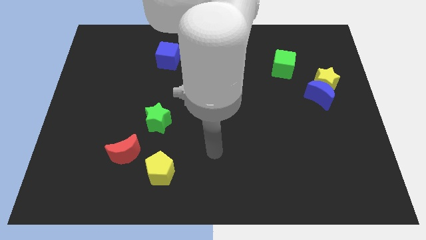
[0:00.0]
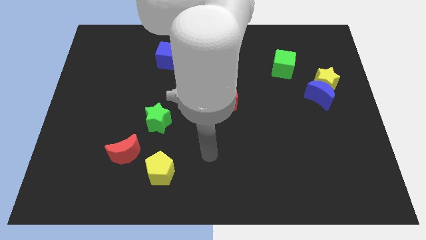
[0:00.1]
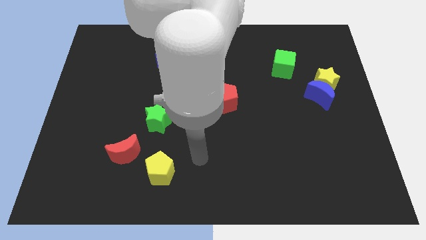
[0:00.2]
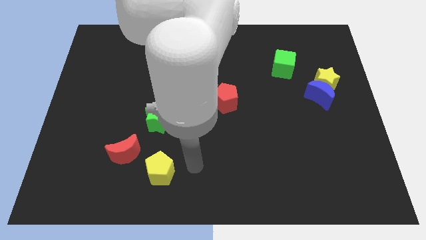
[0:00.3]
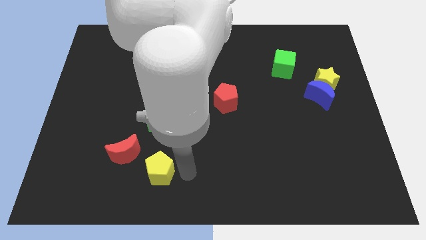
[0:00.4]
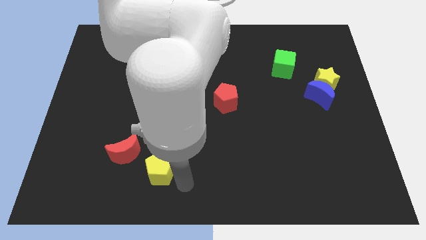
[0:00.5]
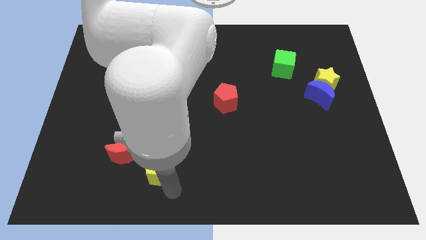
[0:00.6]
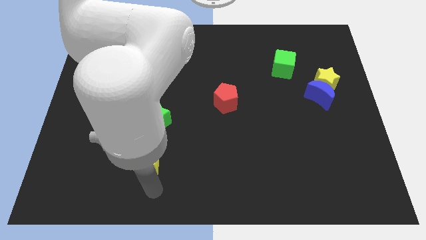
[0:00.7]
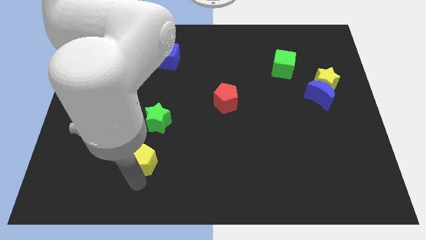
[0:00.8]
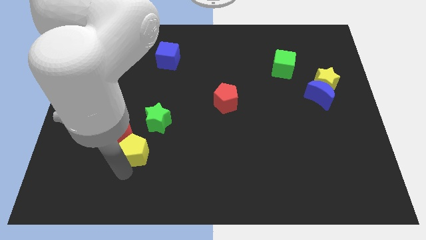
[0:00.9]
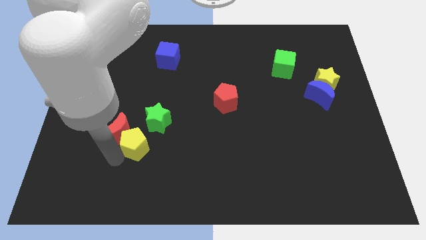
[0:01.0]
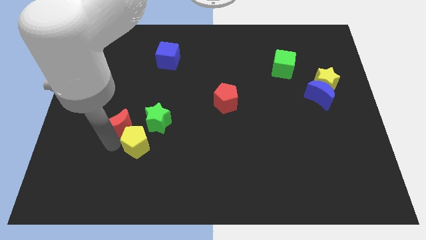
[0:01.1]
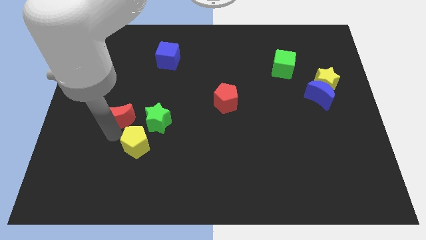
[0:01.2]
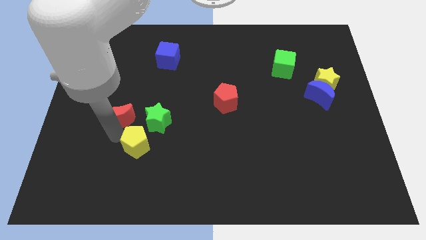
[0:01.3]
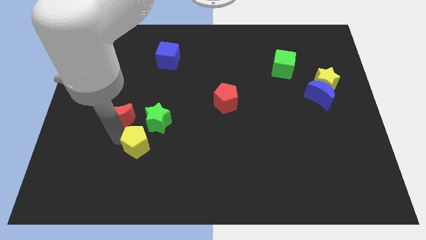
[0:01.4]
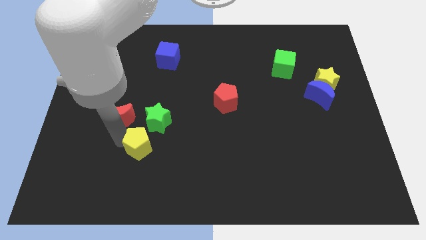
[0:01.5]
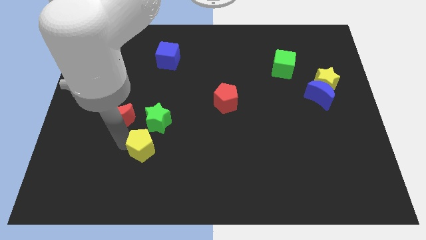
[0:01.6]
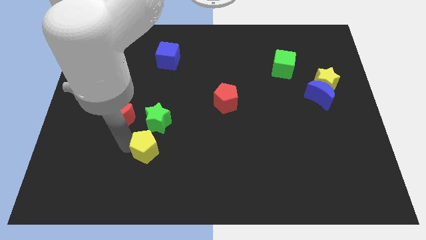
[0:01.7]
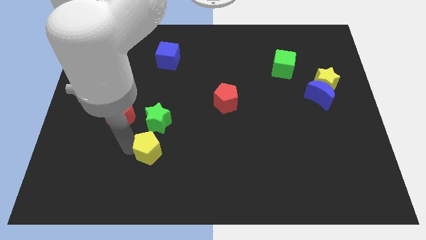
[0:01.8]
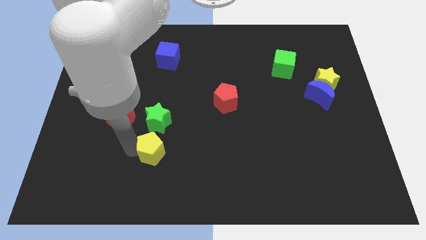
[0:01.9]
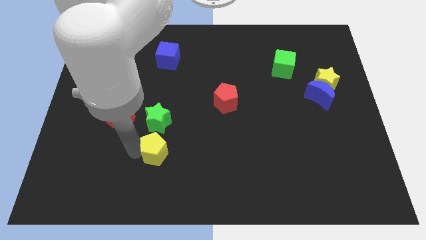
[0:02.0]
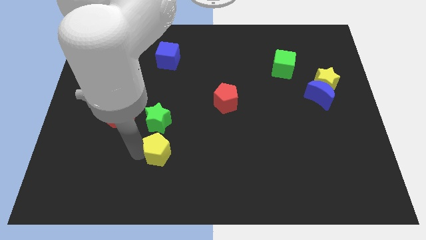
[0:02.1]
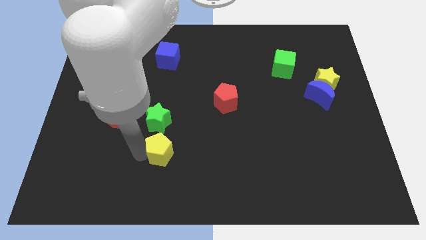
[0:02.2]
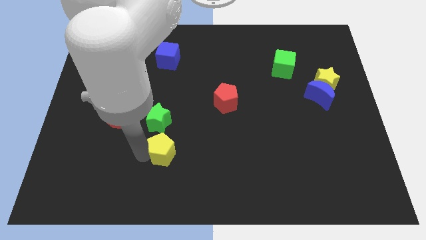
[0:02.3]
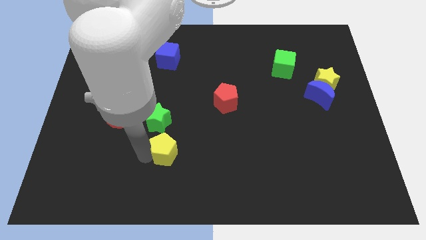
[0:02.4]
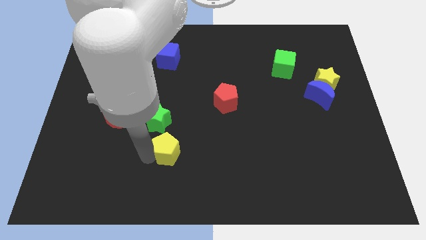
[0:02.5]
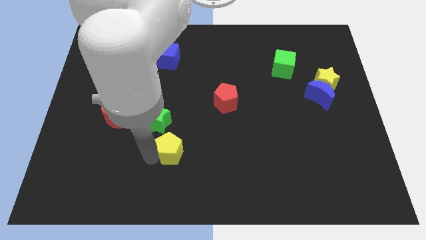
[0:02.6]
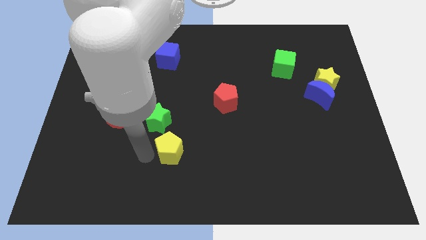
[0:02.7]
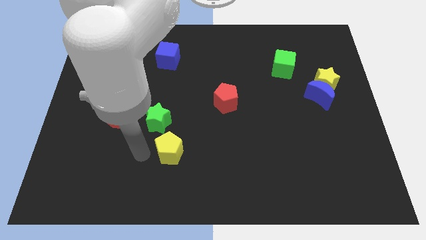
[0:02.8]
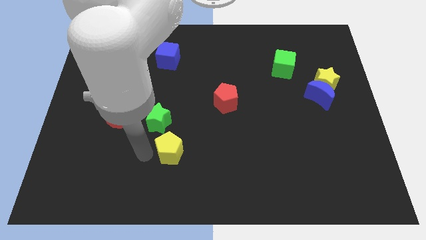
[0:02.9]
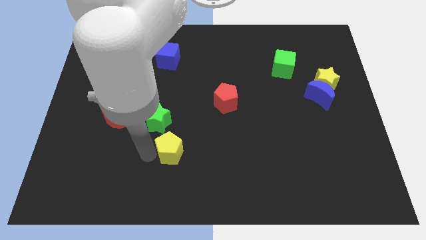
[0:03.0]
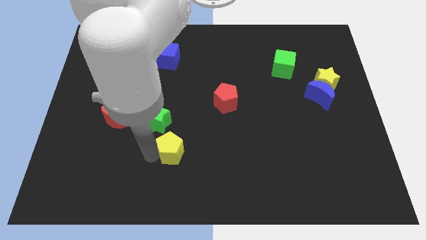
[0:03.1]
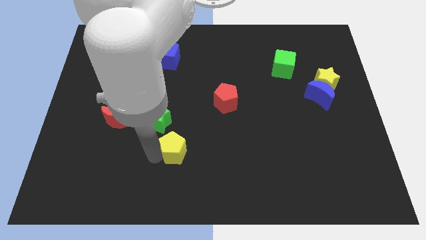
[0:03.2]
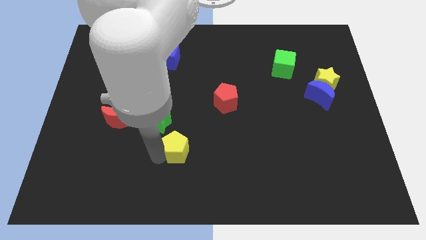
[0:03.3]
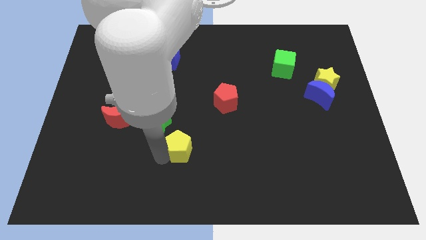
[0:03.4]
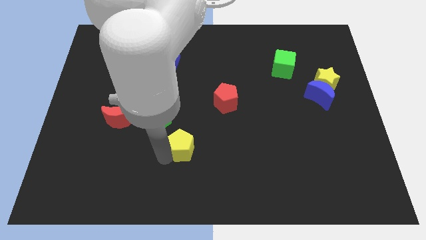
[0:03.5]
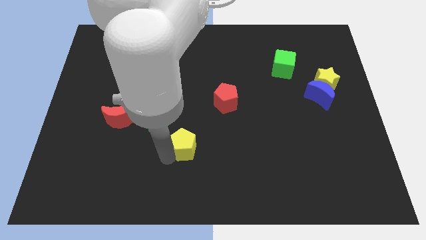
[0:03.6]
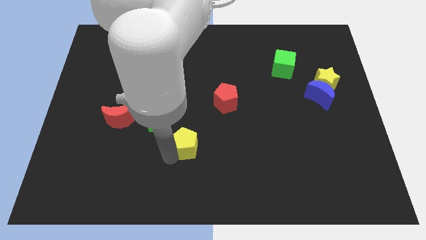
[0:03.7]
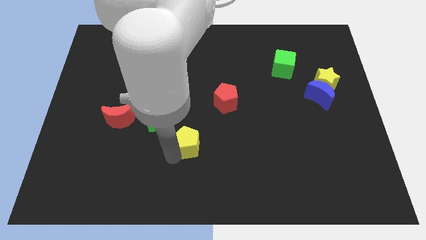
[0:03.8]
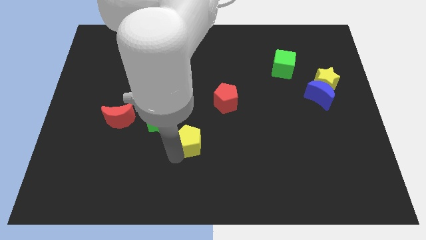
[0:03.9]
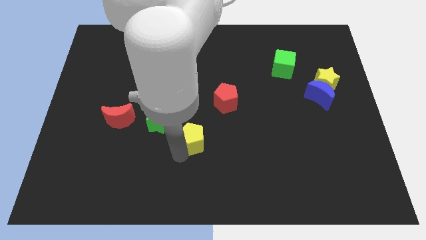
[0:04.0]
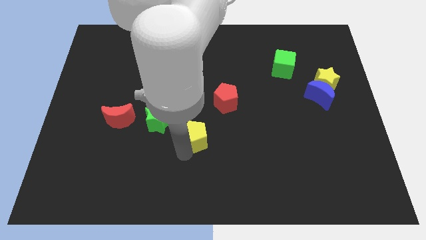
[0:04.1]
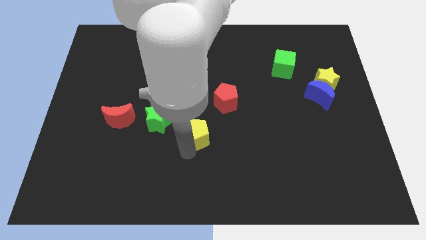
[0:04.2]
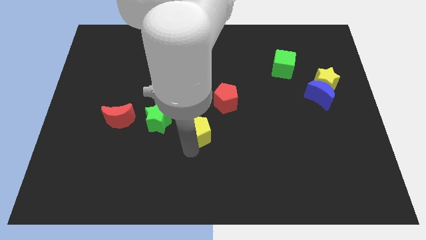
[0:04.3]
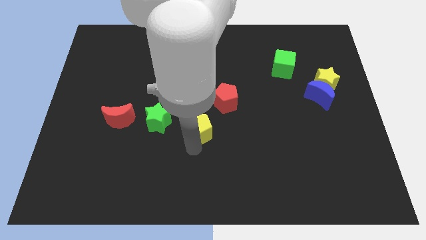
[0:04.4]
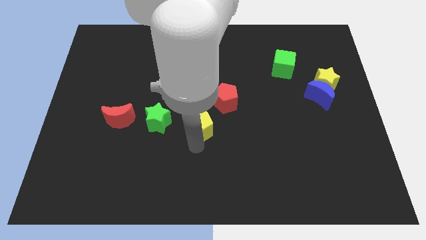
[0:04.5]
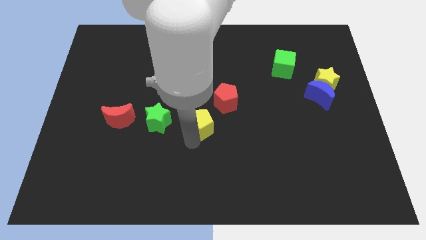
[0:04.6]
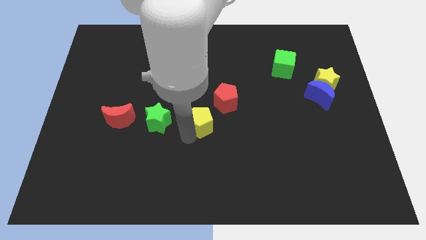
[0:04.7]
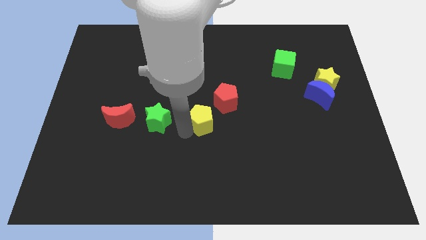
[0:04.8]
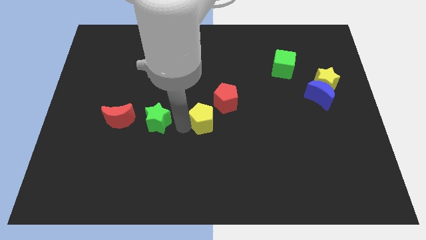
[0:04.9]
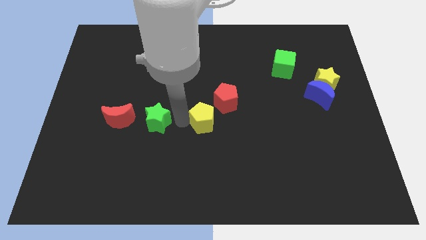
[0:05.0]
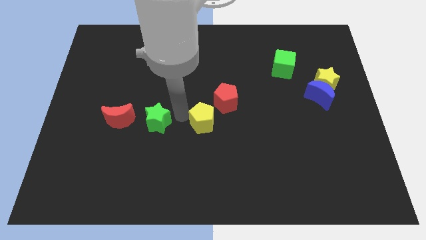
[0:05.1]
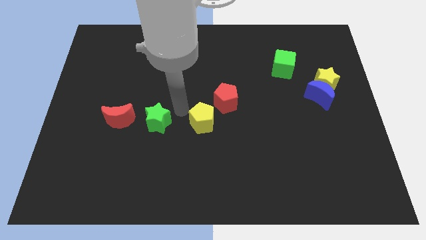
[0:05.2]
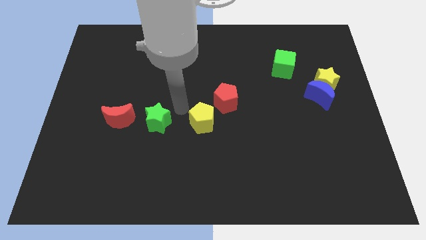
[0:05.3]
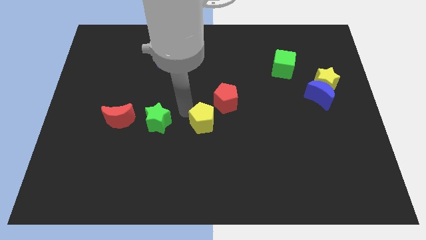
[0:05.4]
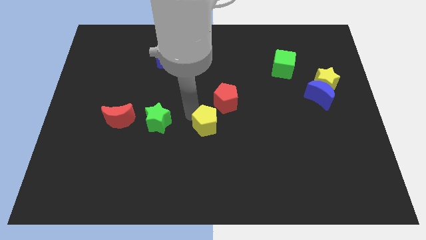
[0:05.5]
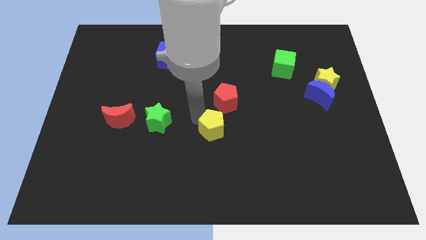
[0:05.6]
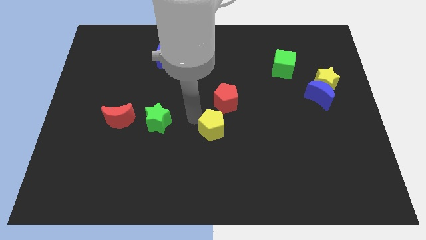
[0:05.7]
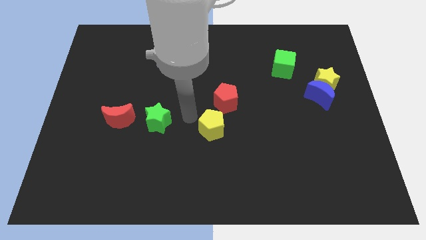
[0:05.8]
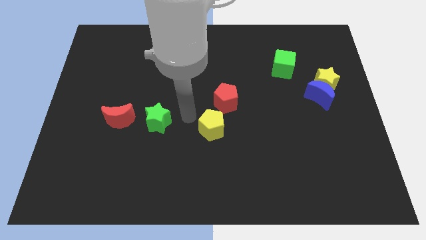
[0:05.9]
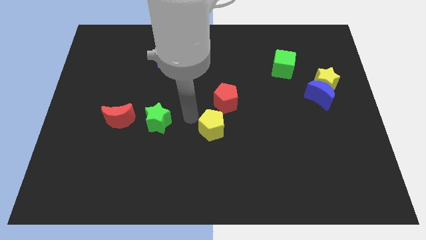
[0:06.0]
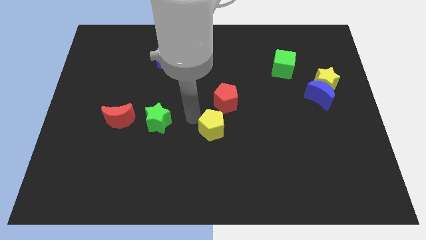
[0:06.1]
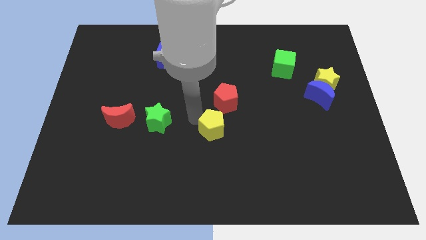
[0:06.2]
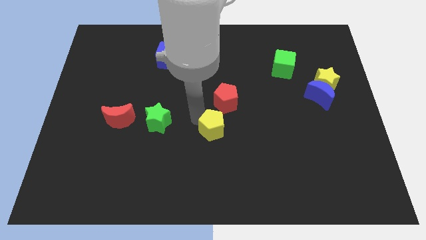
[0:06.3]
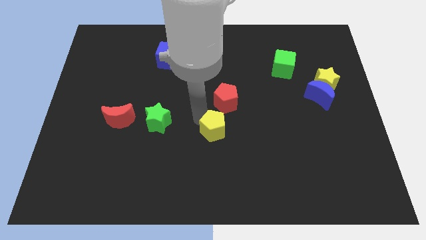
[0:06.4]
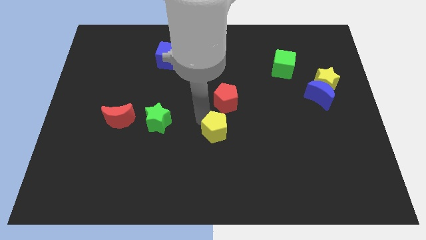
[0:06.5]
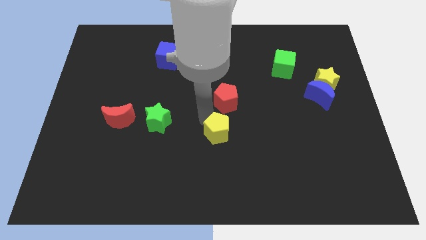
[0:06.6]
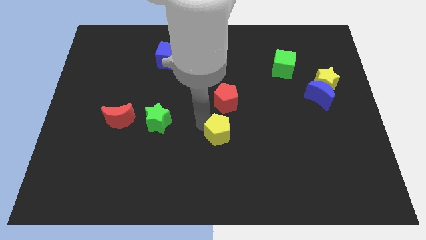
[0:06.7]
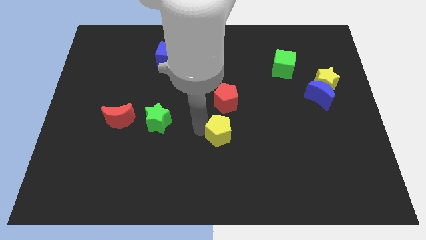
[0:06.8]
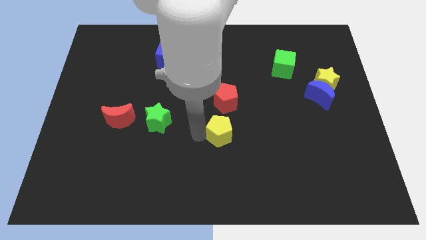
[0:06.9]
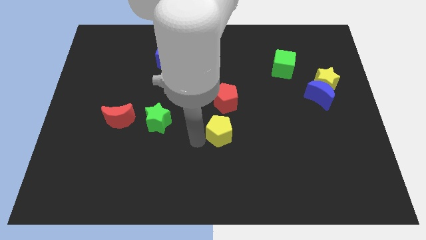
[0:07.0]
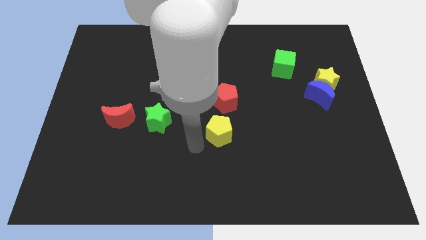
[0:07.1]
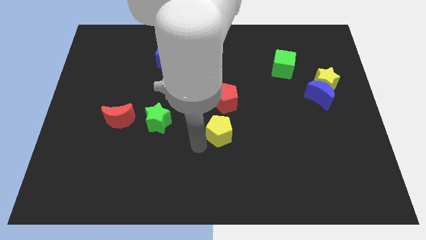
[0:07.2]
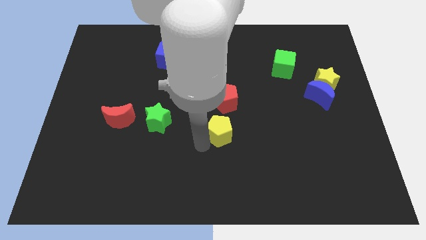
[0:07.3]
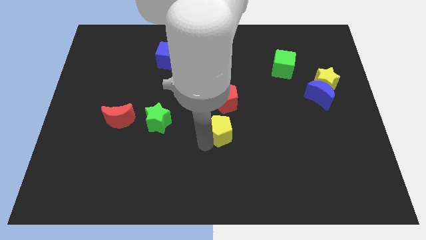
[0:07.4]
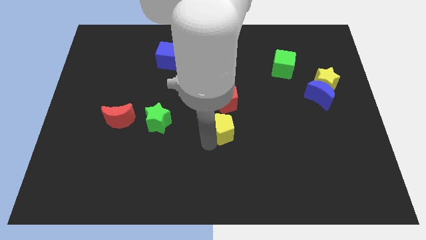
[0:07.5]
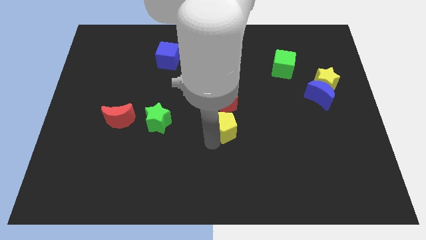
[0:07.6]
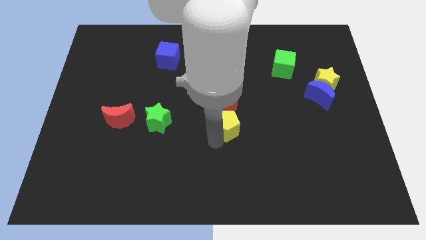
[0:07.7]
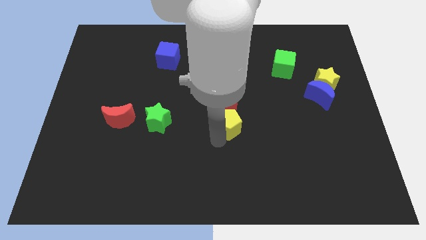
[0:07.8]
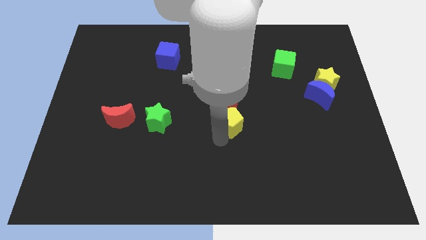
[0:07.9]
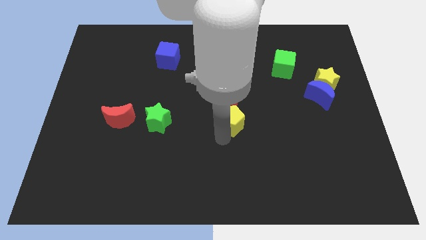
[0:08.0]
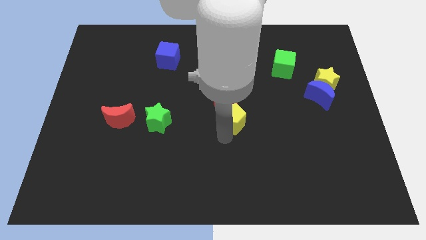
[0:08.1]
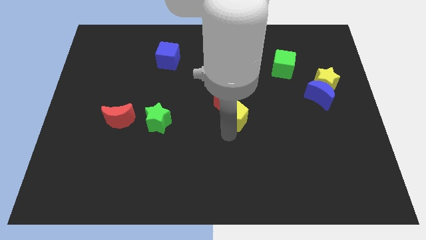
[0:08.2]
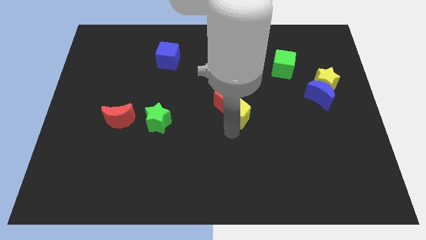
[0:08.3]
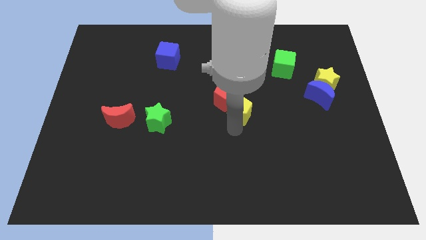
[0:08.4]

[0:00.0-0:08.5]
push the yellow pentagon to the right side of the red pentagon
